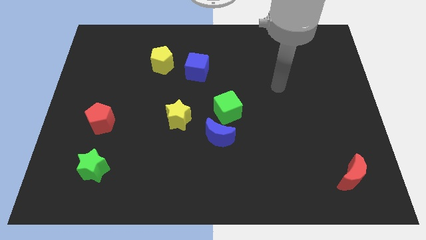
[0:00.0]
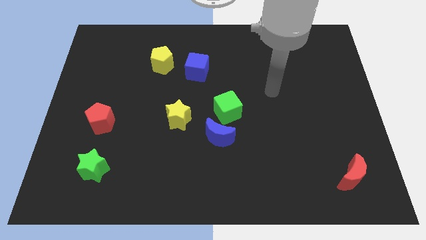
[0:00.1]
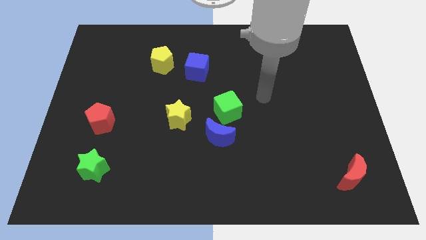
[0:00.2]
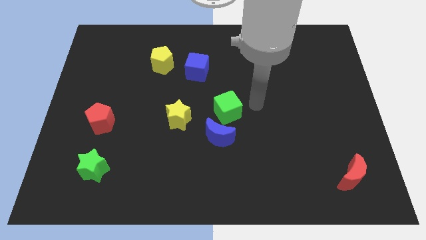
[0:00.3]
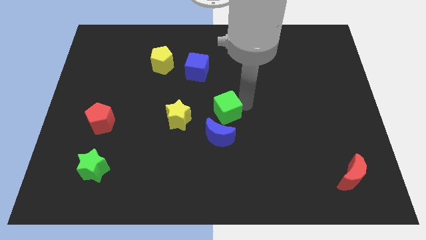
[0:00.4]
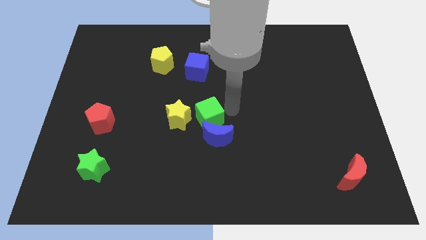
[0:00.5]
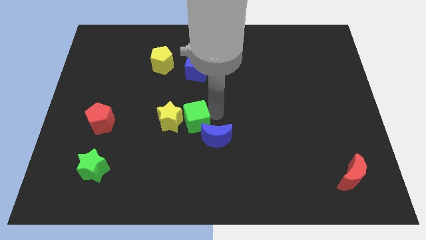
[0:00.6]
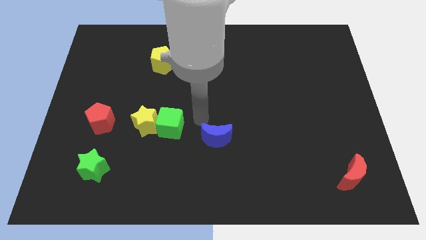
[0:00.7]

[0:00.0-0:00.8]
pull the blue moon apart from the green cube

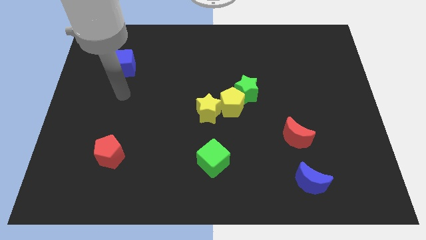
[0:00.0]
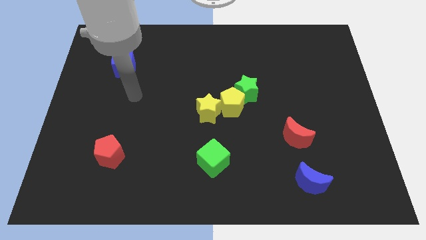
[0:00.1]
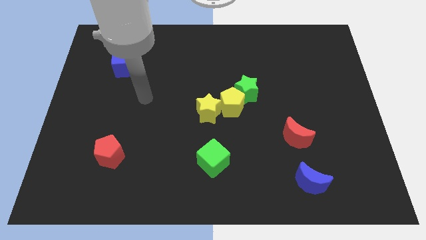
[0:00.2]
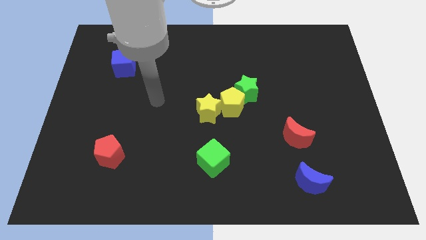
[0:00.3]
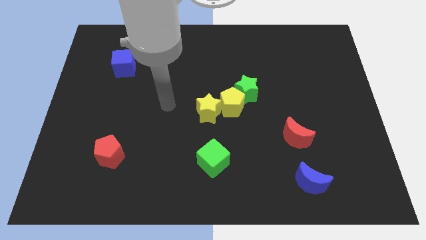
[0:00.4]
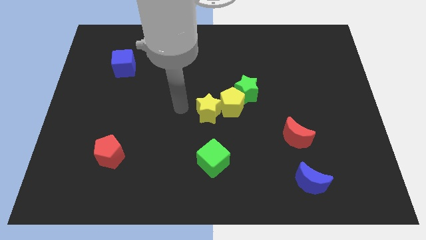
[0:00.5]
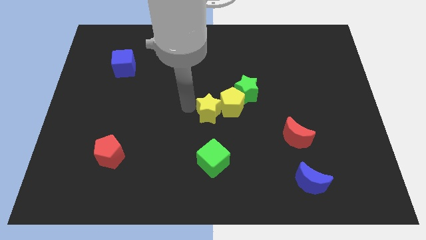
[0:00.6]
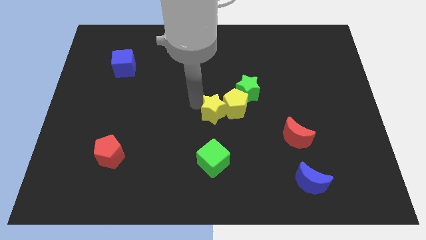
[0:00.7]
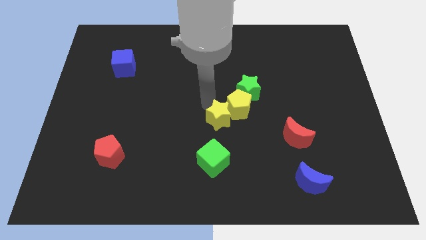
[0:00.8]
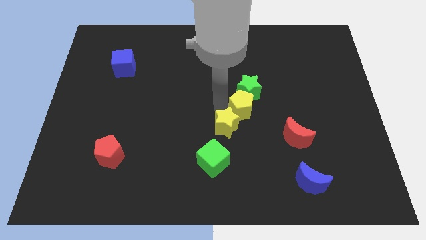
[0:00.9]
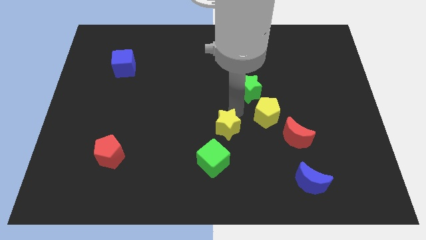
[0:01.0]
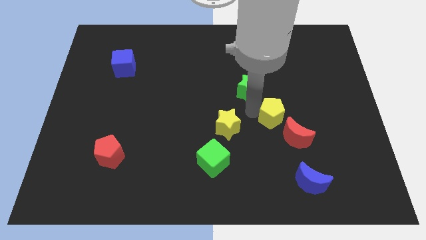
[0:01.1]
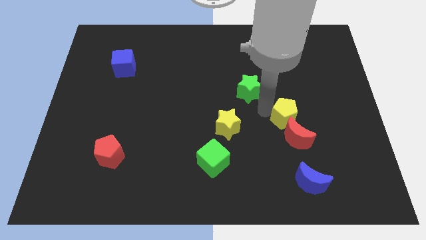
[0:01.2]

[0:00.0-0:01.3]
pull the green star apart from the yellow pentagon

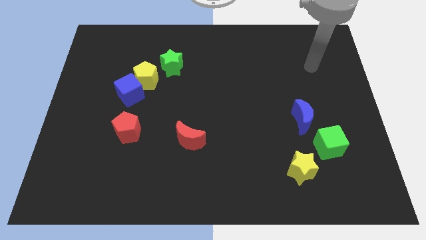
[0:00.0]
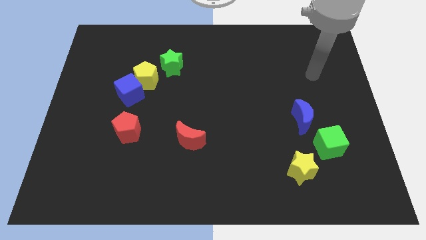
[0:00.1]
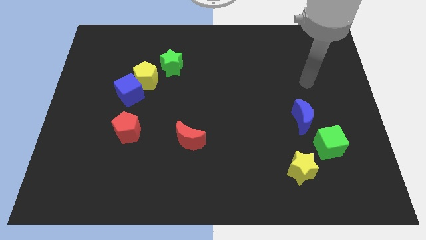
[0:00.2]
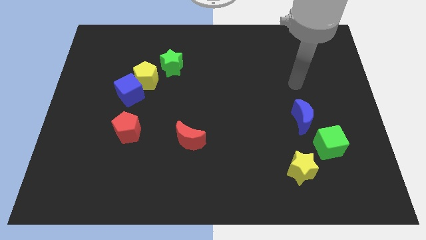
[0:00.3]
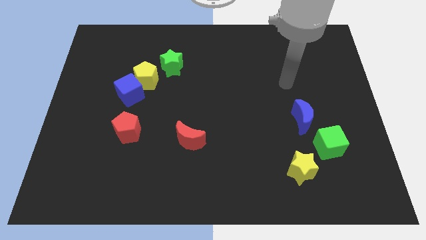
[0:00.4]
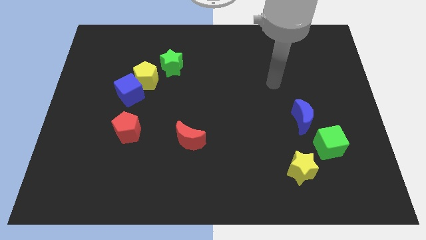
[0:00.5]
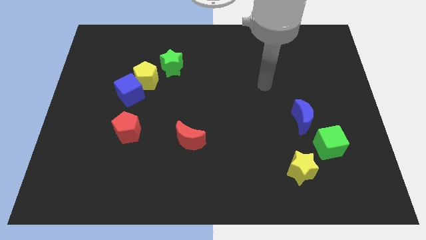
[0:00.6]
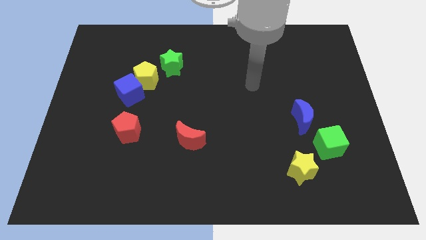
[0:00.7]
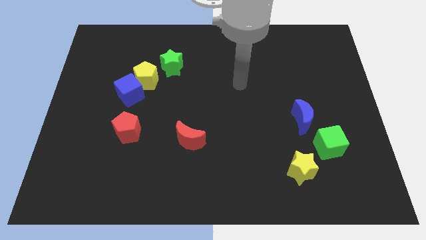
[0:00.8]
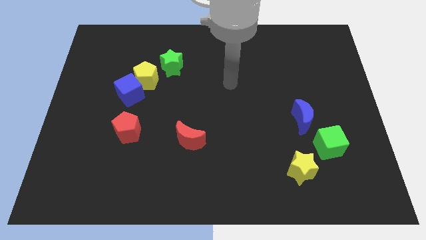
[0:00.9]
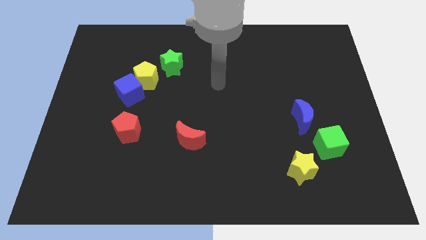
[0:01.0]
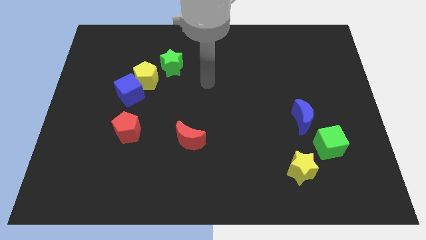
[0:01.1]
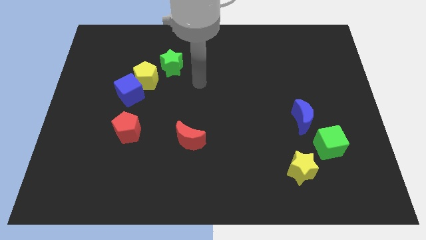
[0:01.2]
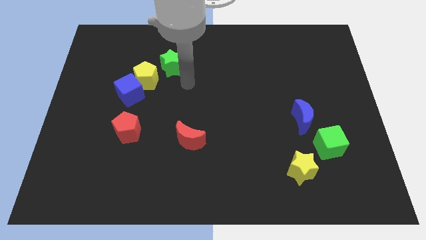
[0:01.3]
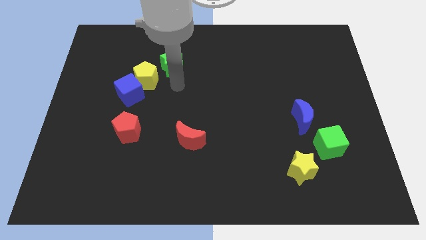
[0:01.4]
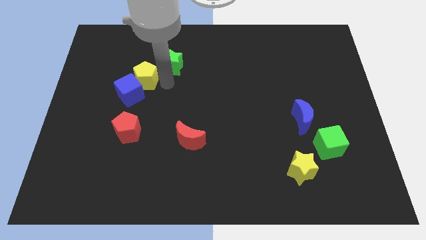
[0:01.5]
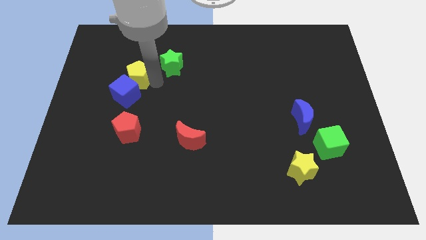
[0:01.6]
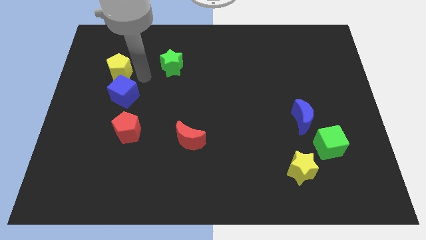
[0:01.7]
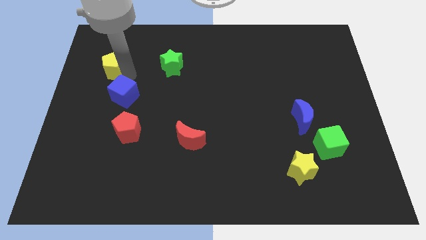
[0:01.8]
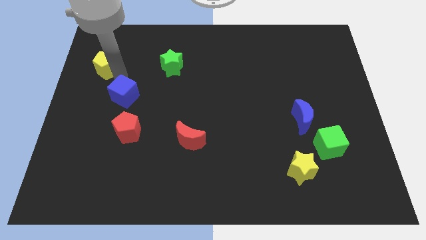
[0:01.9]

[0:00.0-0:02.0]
pull the blue cube apart from the yellow pentagon

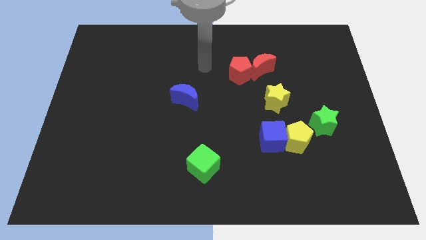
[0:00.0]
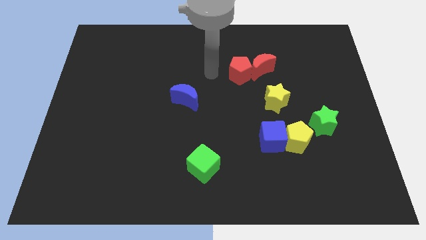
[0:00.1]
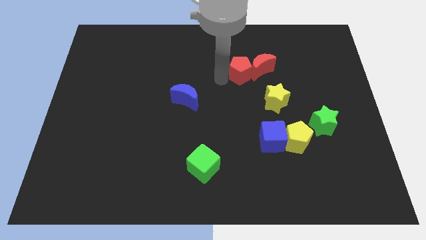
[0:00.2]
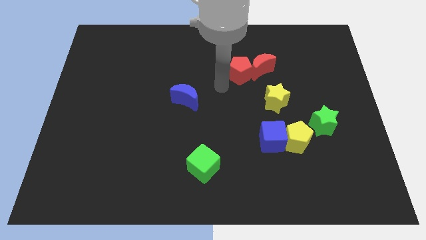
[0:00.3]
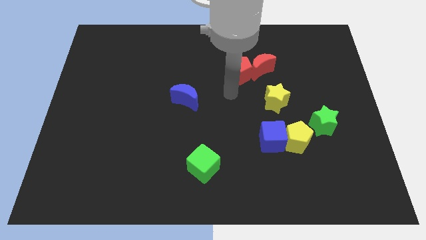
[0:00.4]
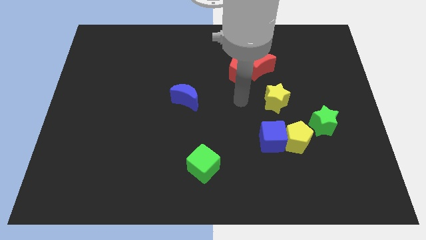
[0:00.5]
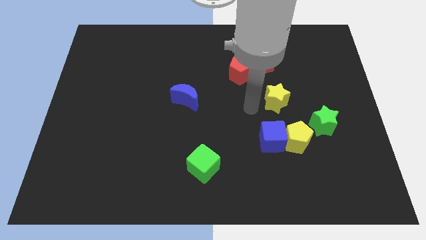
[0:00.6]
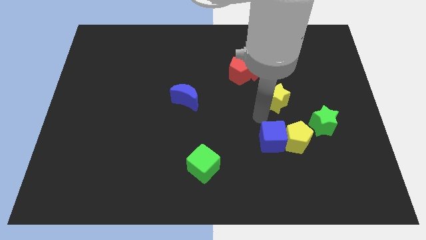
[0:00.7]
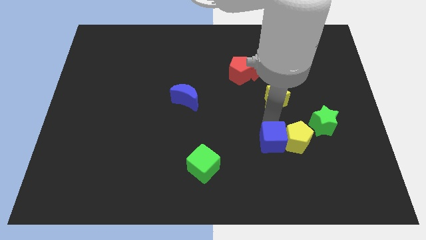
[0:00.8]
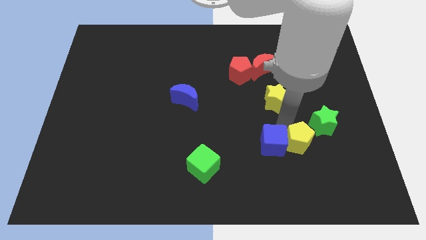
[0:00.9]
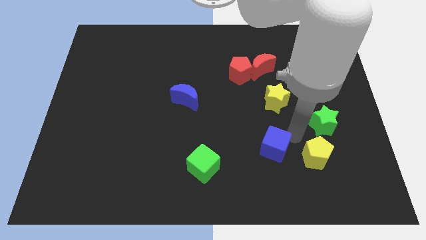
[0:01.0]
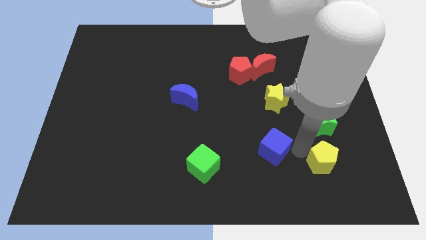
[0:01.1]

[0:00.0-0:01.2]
move the blue cube away from the yellow pentagon

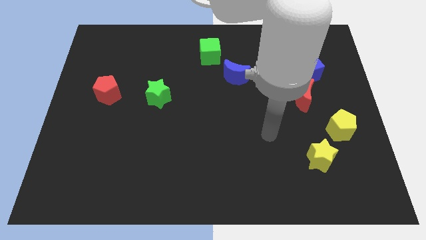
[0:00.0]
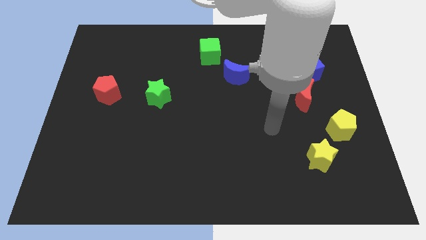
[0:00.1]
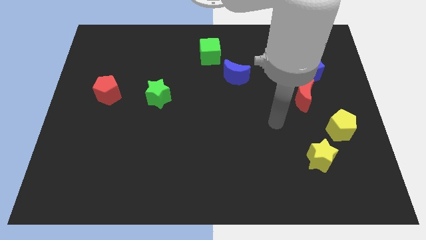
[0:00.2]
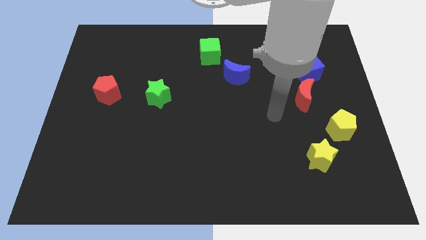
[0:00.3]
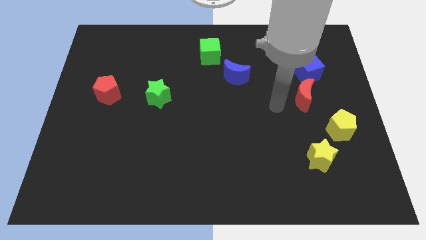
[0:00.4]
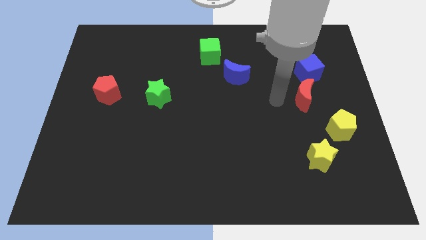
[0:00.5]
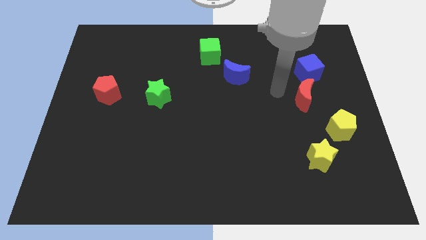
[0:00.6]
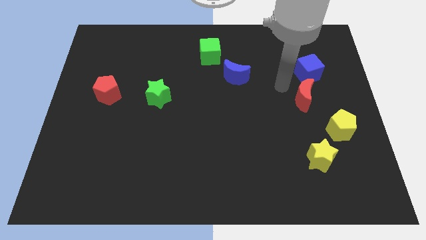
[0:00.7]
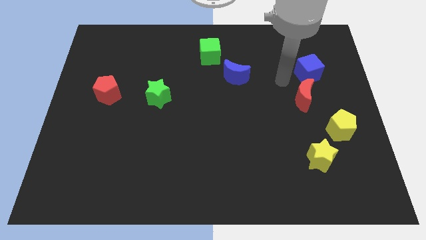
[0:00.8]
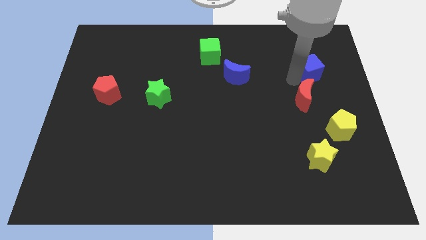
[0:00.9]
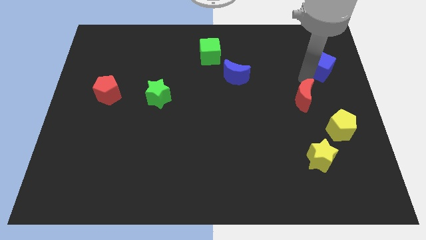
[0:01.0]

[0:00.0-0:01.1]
pull the red moon apart from the blue cube

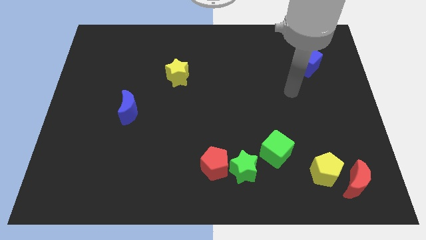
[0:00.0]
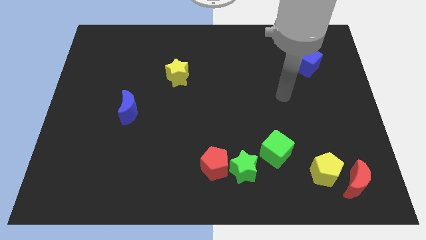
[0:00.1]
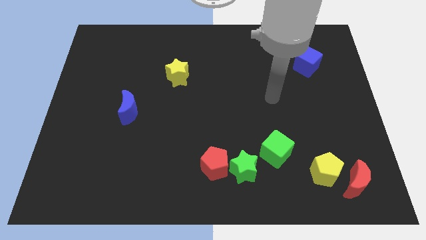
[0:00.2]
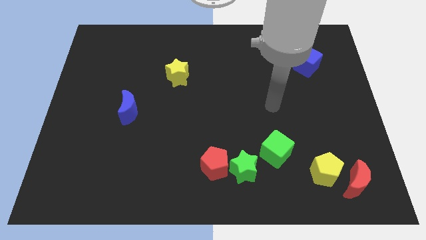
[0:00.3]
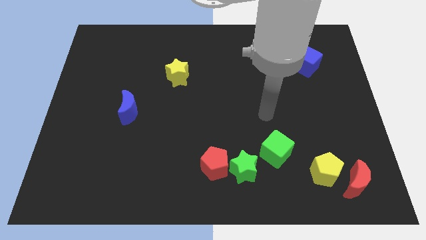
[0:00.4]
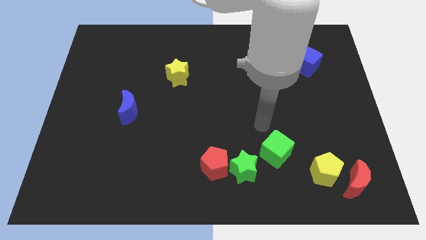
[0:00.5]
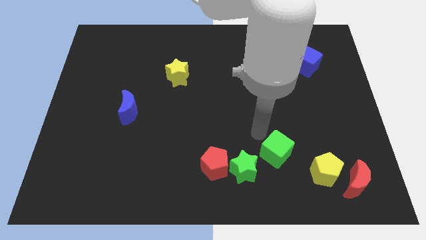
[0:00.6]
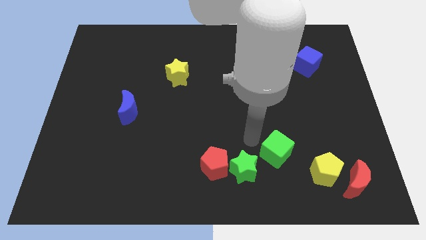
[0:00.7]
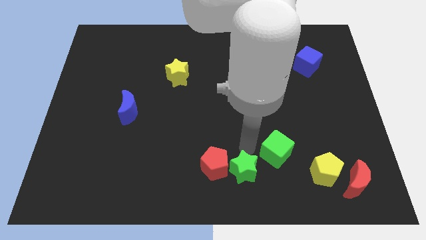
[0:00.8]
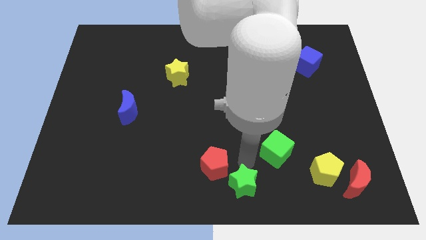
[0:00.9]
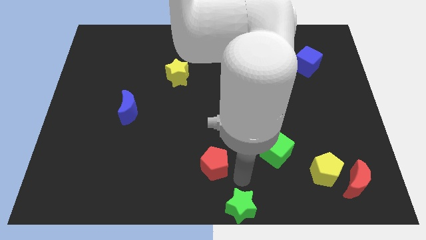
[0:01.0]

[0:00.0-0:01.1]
pull the red pentagon apart from the green star

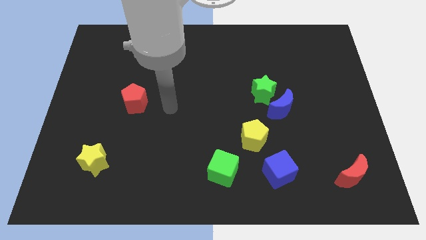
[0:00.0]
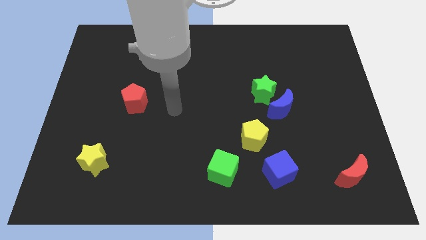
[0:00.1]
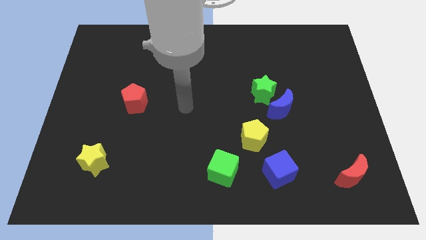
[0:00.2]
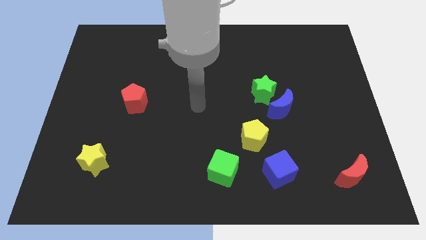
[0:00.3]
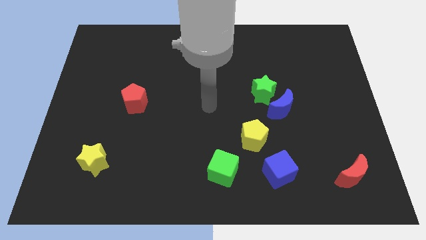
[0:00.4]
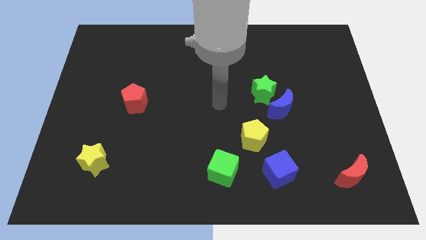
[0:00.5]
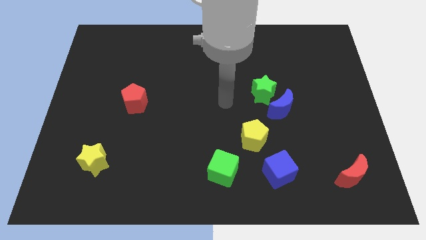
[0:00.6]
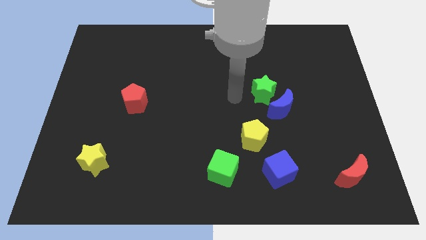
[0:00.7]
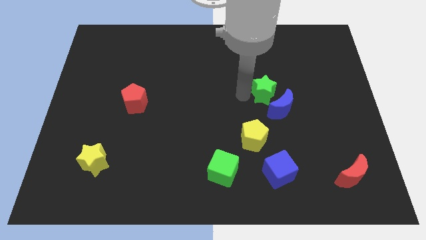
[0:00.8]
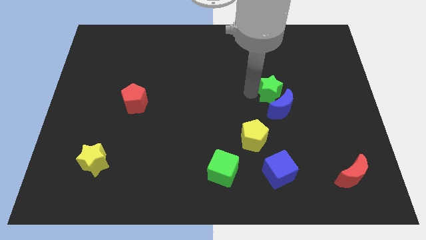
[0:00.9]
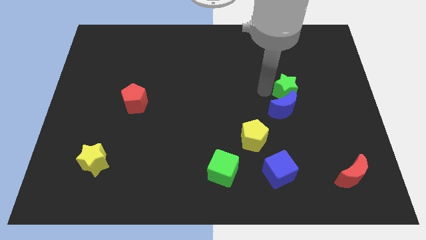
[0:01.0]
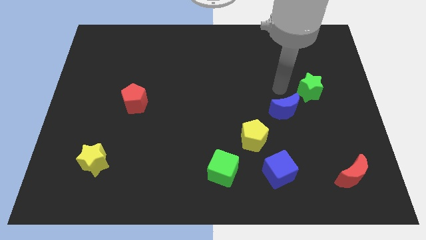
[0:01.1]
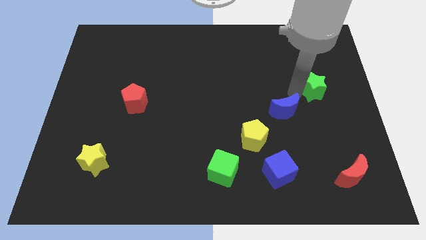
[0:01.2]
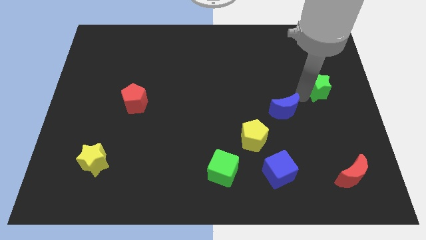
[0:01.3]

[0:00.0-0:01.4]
pull the blue moon apart from the green star

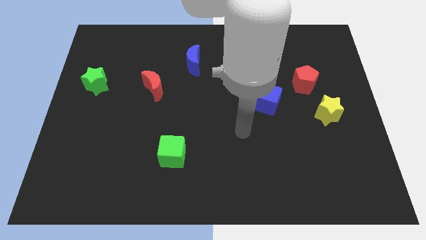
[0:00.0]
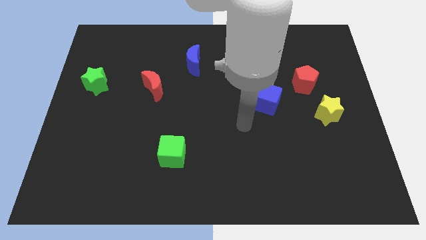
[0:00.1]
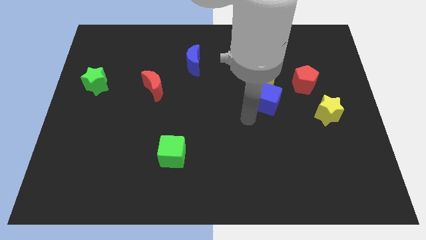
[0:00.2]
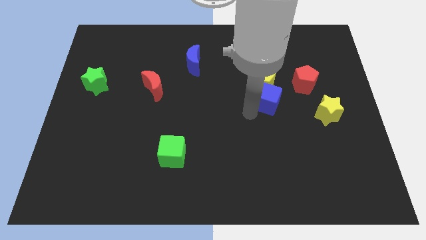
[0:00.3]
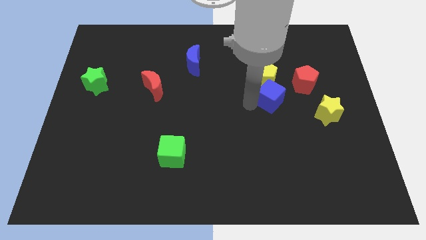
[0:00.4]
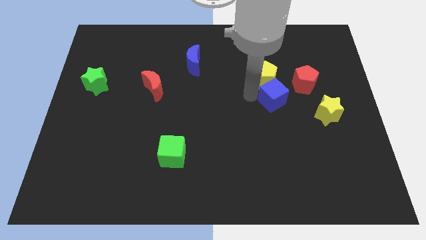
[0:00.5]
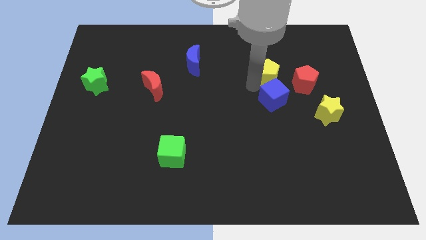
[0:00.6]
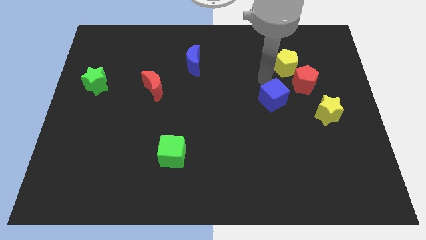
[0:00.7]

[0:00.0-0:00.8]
separate the blue cube from the yellow pentagon
